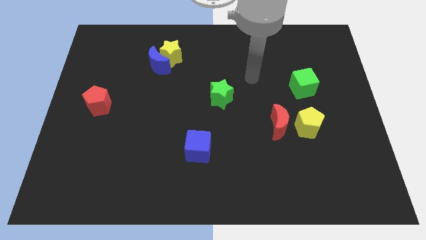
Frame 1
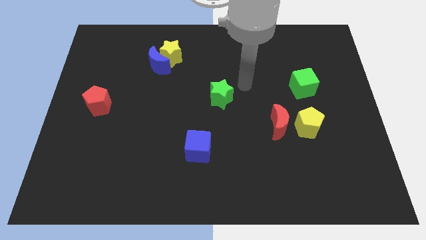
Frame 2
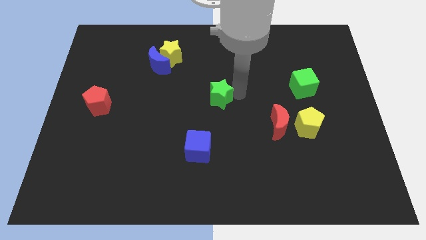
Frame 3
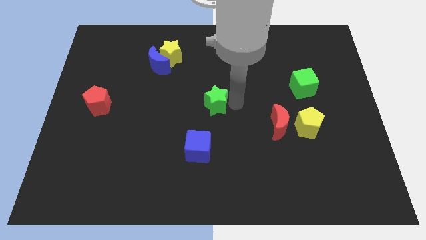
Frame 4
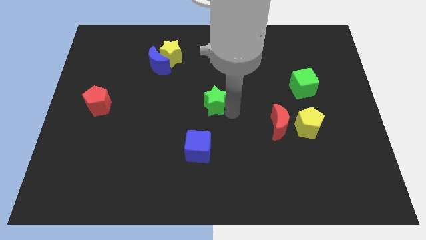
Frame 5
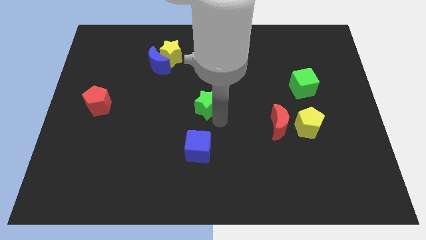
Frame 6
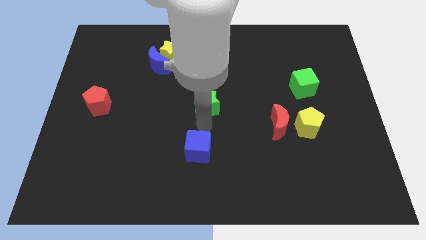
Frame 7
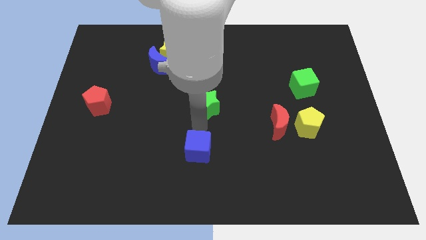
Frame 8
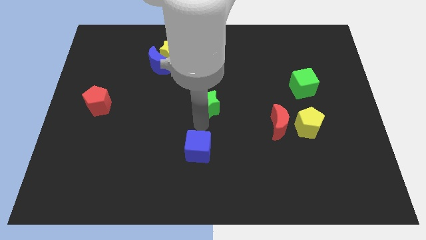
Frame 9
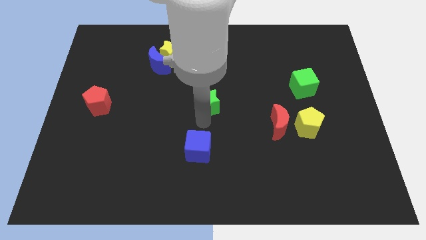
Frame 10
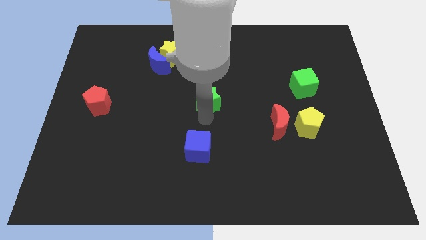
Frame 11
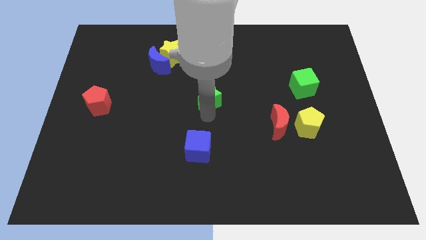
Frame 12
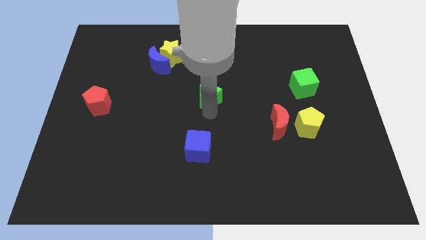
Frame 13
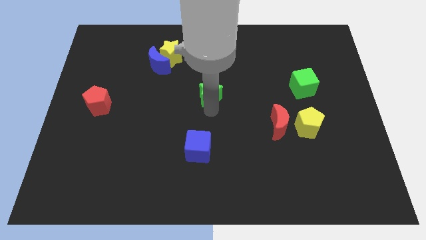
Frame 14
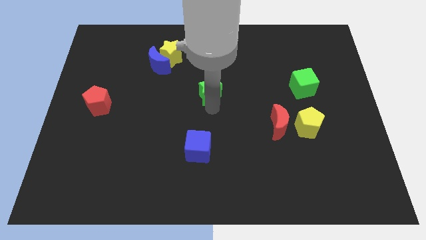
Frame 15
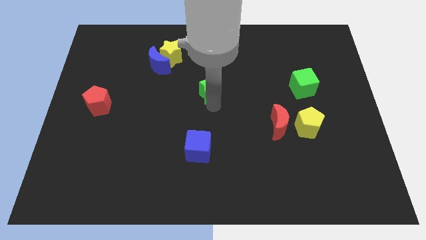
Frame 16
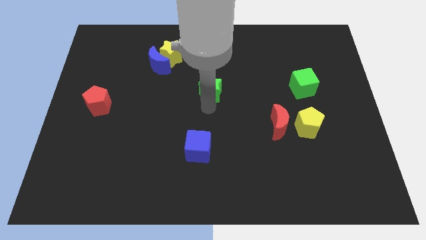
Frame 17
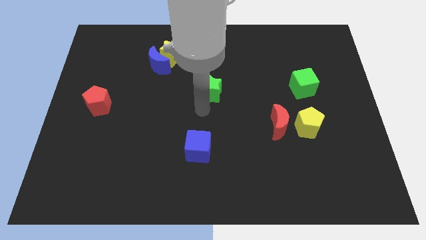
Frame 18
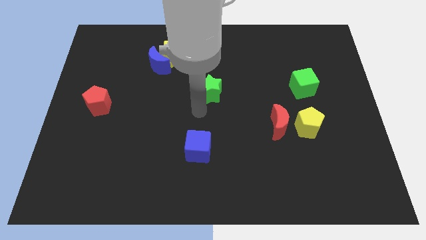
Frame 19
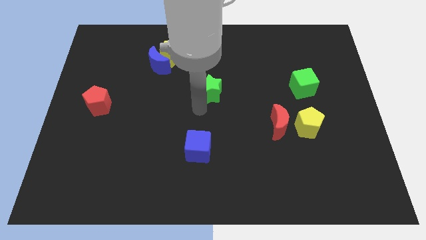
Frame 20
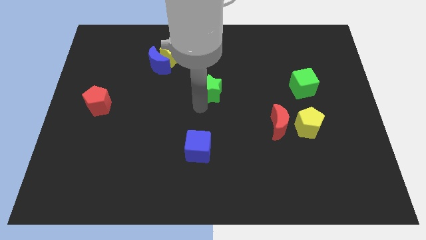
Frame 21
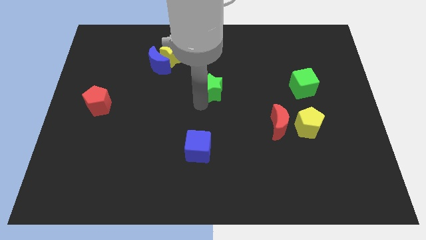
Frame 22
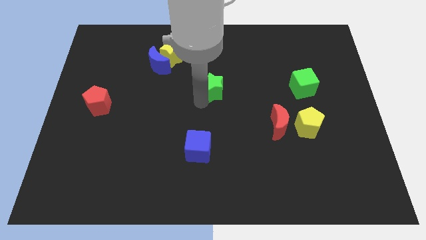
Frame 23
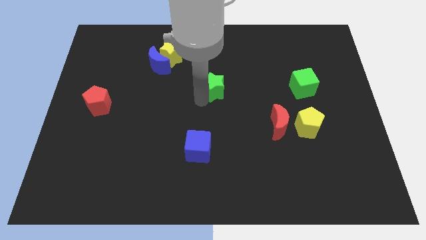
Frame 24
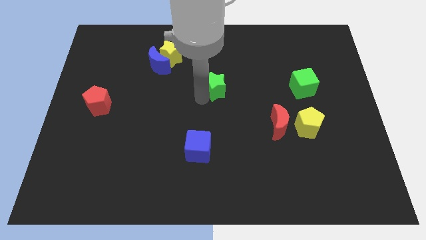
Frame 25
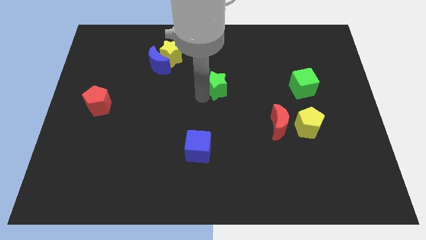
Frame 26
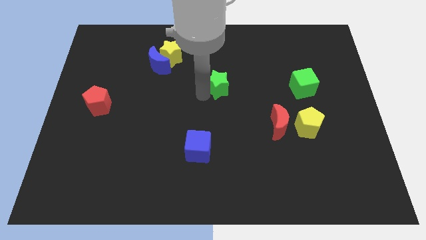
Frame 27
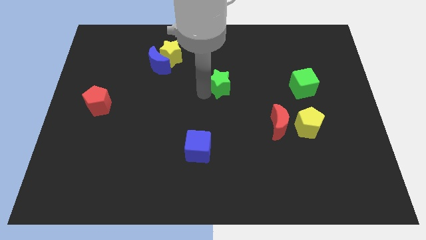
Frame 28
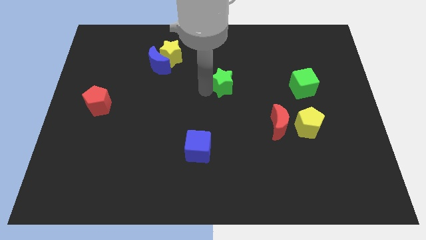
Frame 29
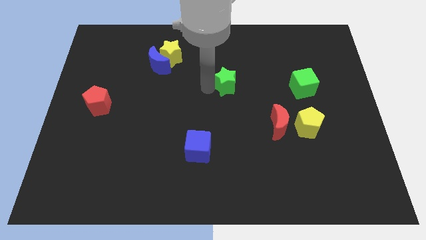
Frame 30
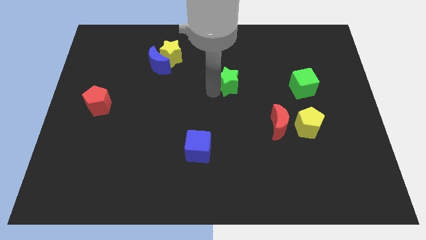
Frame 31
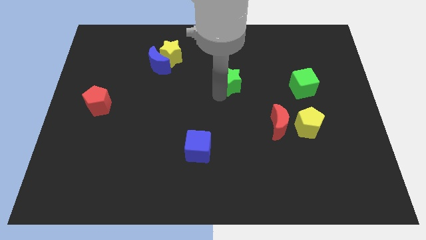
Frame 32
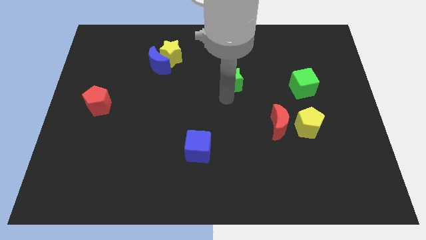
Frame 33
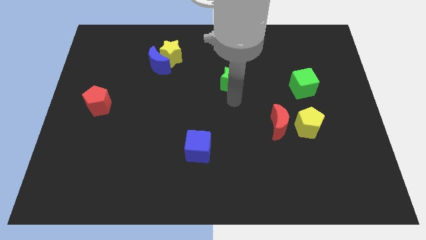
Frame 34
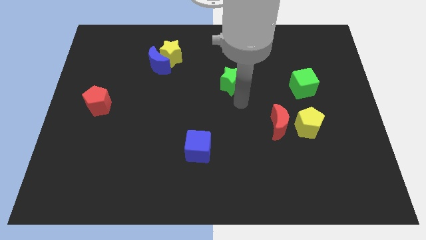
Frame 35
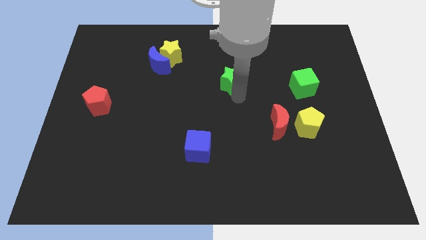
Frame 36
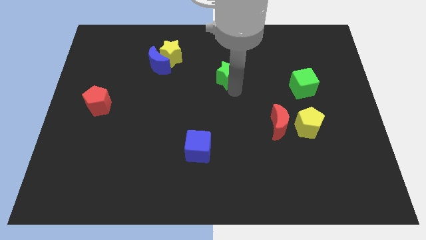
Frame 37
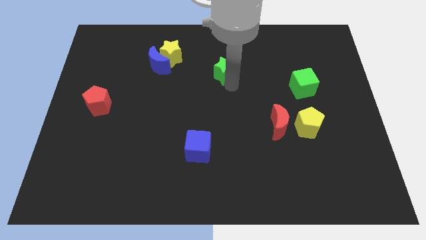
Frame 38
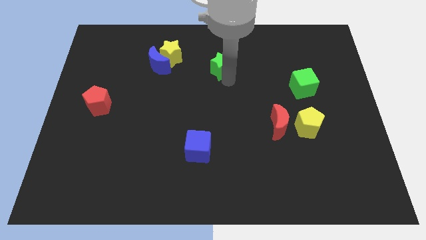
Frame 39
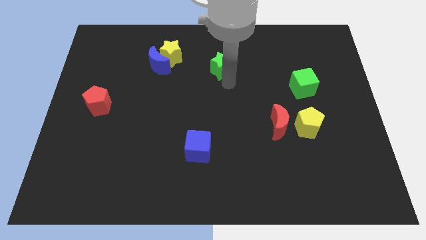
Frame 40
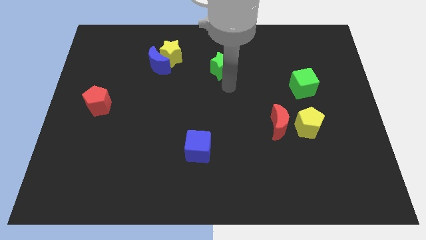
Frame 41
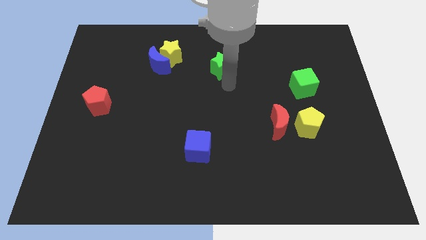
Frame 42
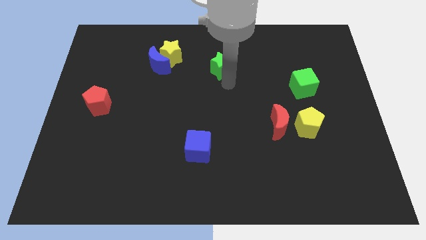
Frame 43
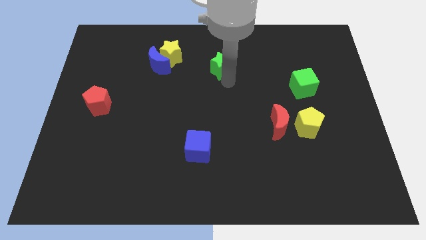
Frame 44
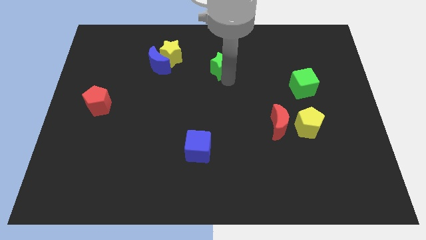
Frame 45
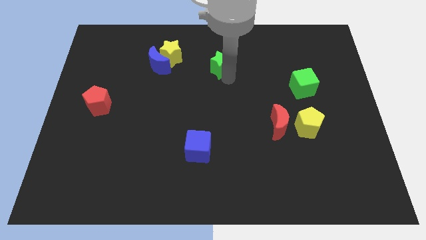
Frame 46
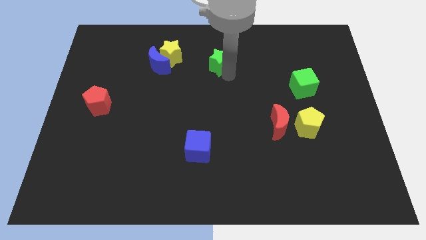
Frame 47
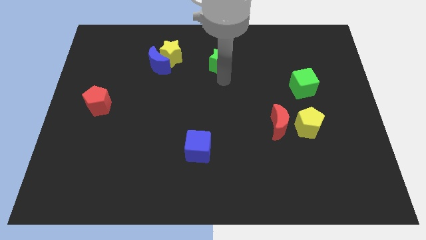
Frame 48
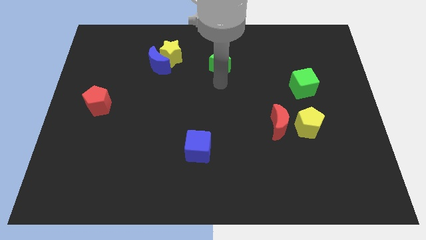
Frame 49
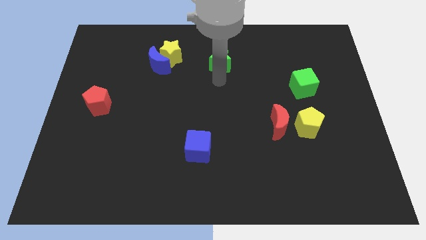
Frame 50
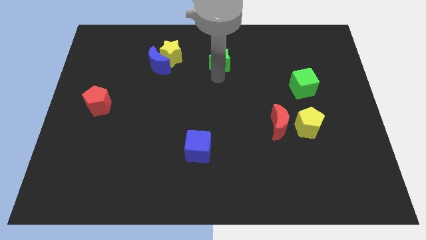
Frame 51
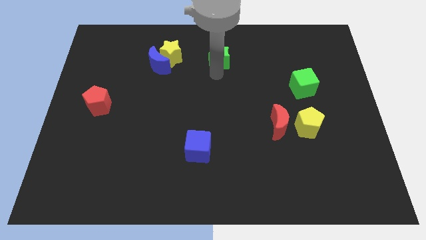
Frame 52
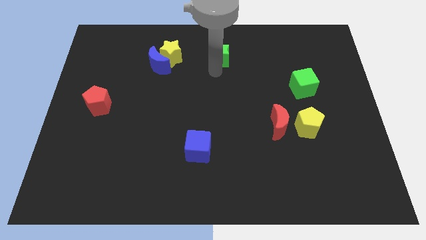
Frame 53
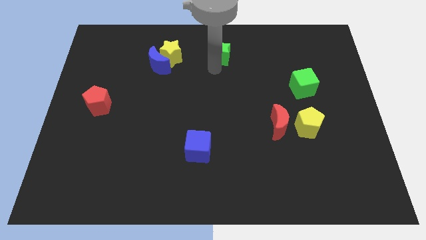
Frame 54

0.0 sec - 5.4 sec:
put the green star to the top
